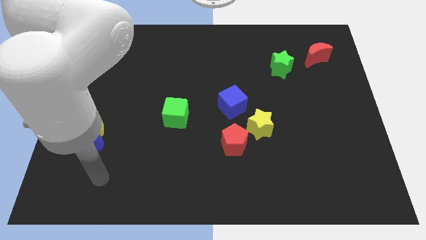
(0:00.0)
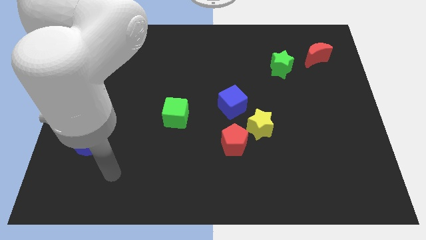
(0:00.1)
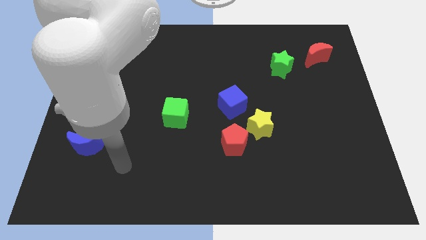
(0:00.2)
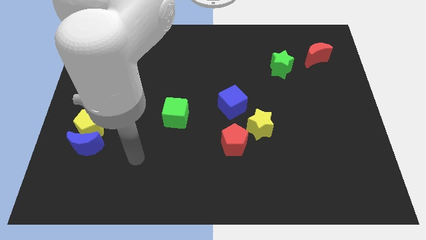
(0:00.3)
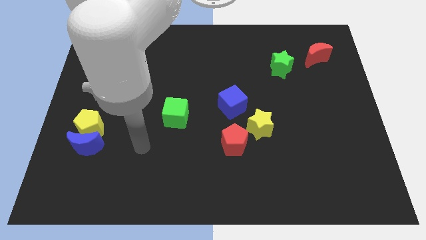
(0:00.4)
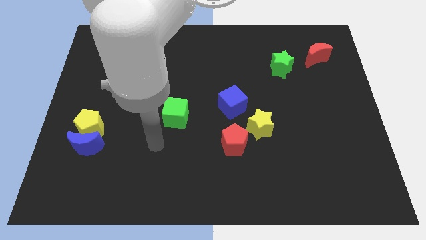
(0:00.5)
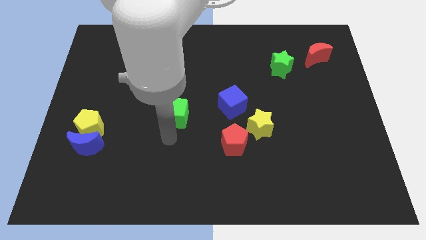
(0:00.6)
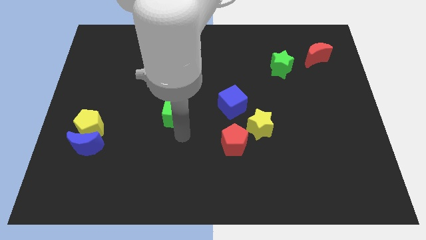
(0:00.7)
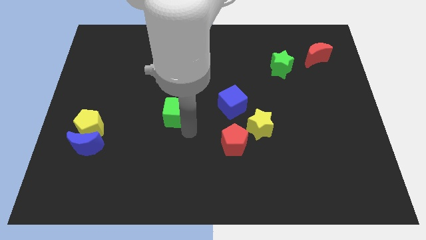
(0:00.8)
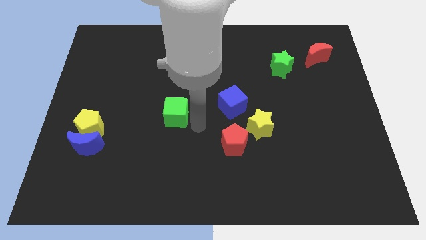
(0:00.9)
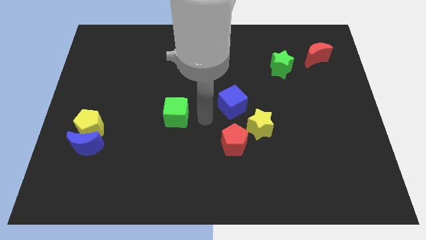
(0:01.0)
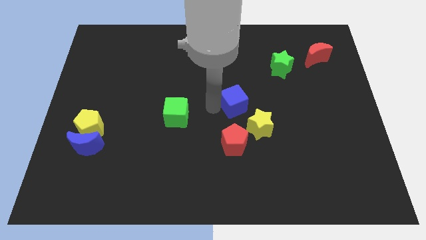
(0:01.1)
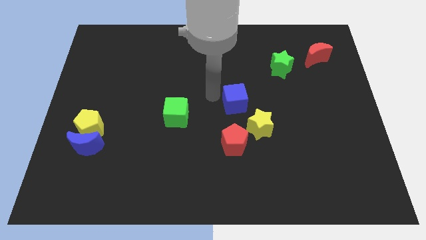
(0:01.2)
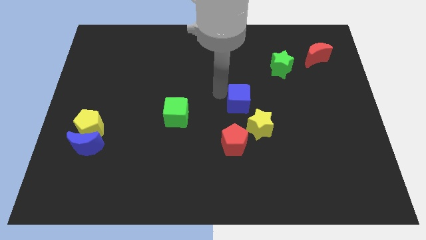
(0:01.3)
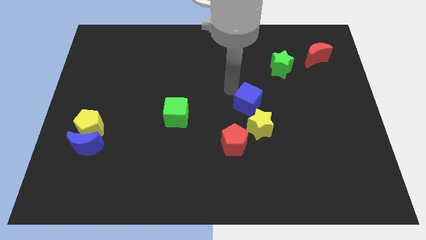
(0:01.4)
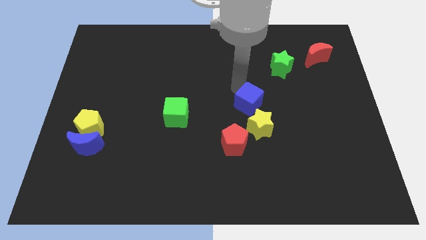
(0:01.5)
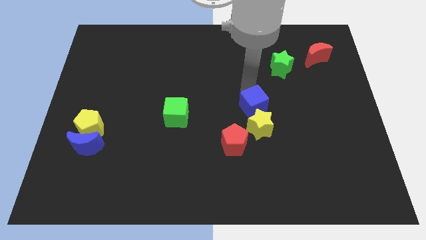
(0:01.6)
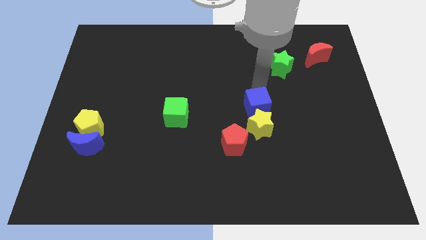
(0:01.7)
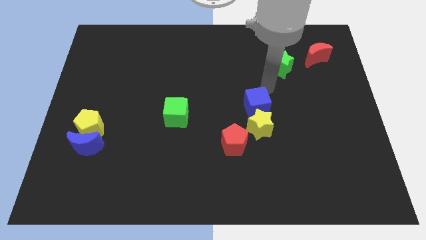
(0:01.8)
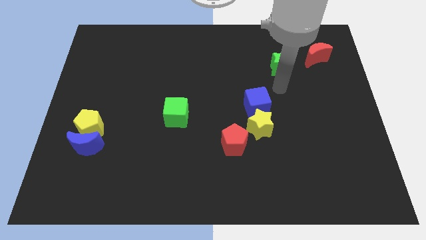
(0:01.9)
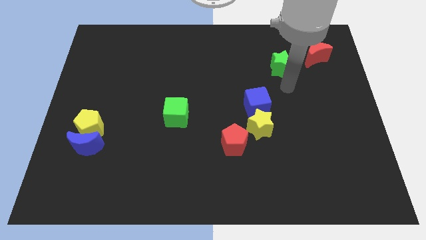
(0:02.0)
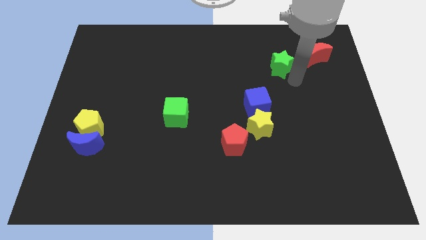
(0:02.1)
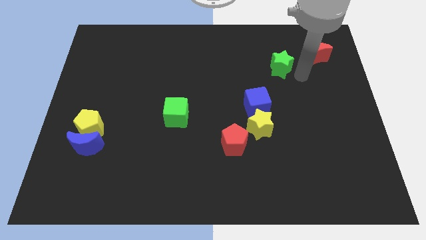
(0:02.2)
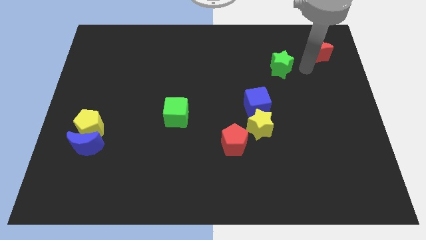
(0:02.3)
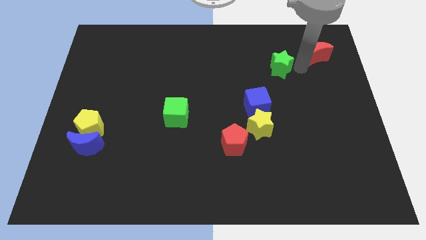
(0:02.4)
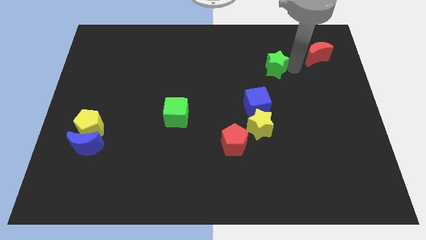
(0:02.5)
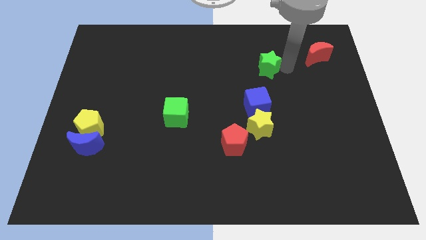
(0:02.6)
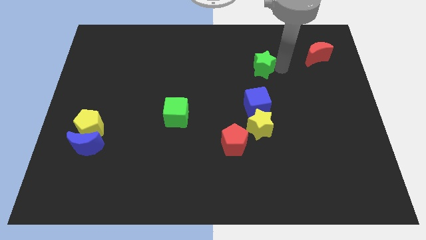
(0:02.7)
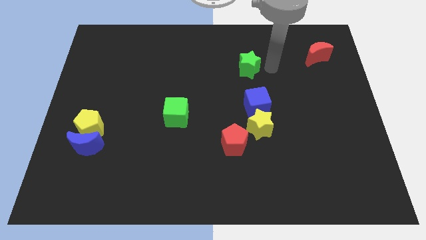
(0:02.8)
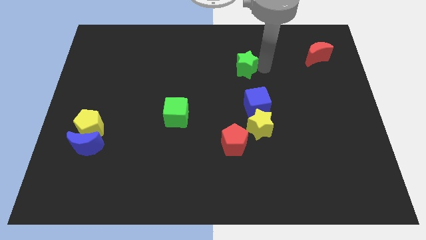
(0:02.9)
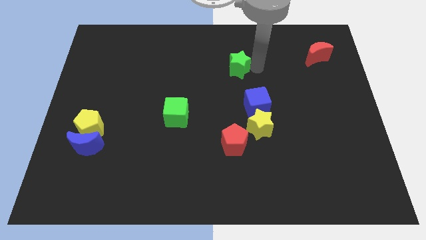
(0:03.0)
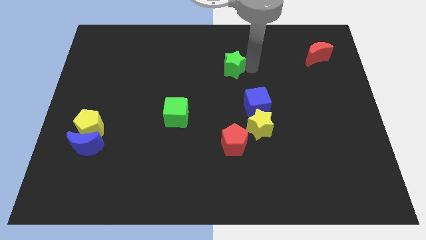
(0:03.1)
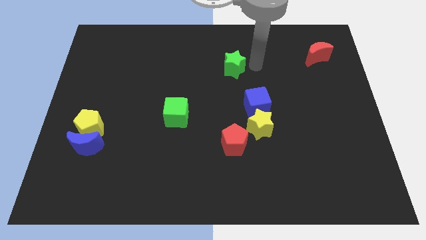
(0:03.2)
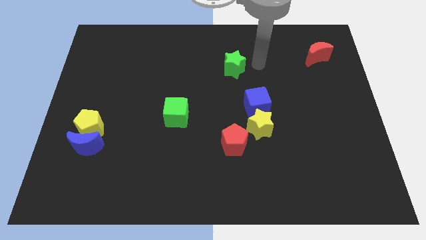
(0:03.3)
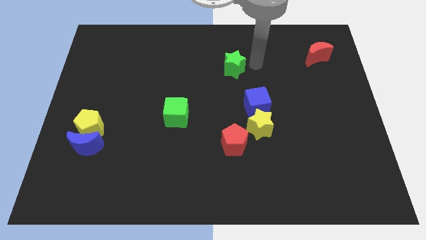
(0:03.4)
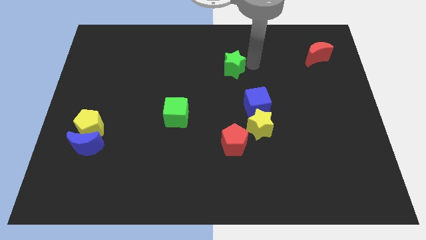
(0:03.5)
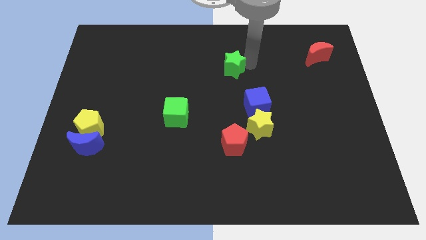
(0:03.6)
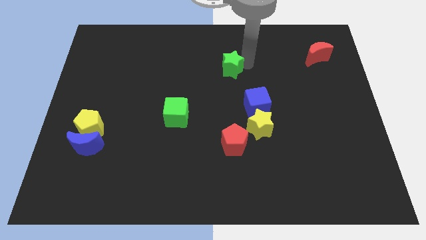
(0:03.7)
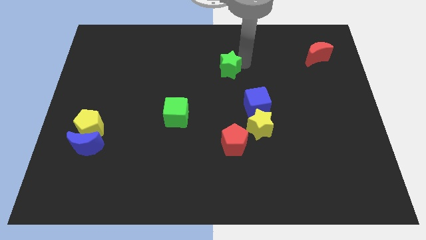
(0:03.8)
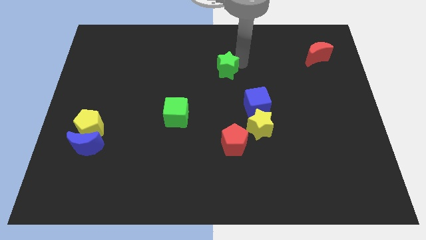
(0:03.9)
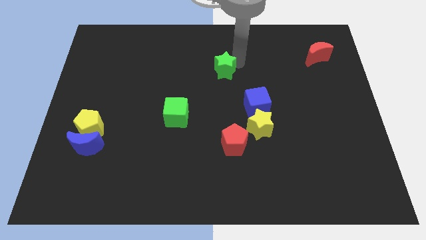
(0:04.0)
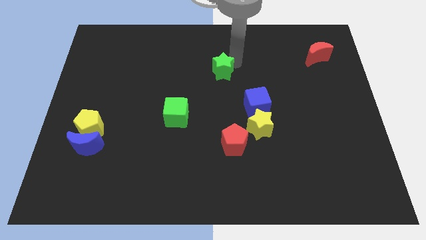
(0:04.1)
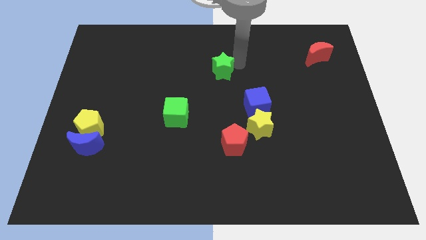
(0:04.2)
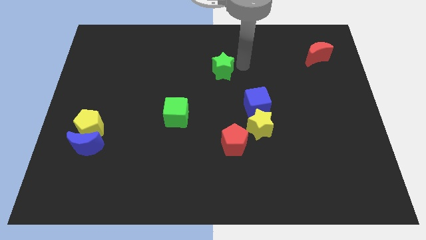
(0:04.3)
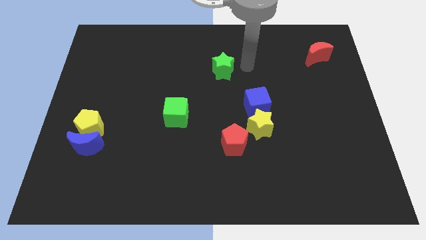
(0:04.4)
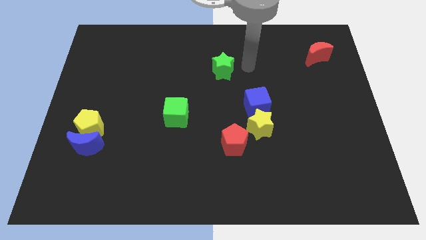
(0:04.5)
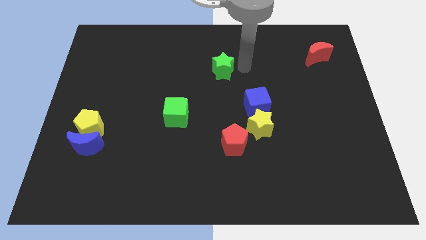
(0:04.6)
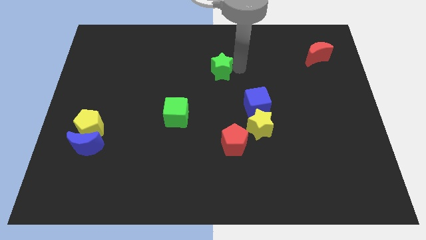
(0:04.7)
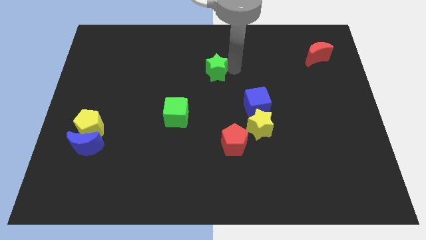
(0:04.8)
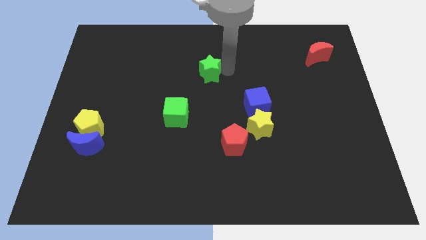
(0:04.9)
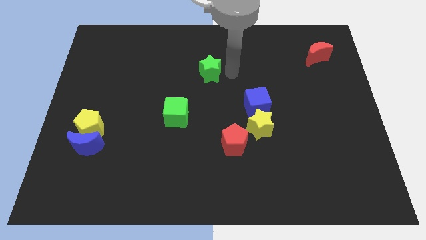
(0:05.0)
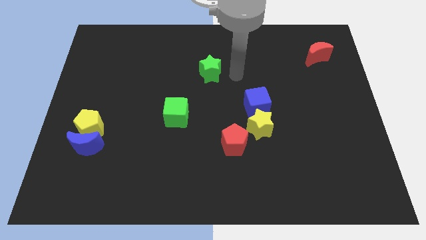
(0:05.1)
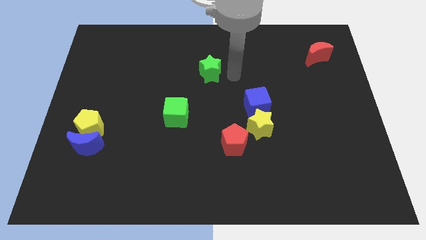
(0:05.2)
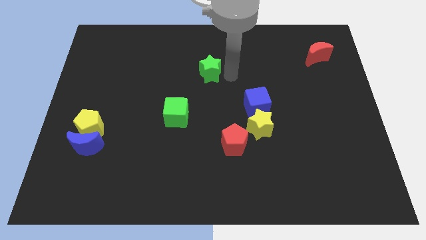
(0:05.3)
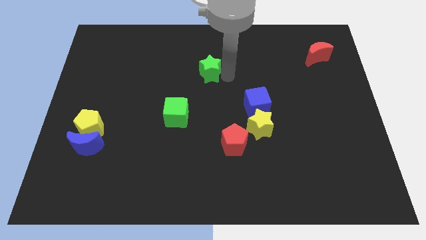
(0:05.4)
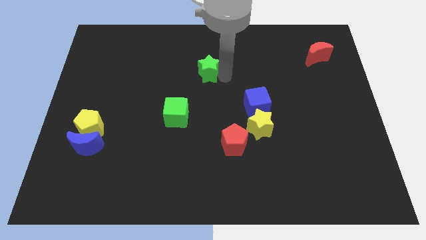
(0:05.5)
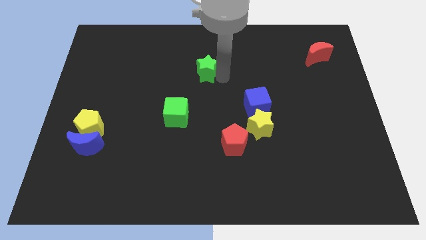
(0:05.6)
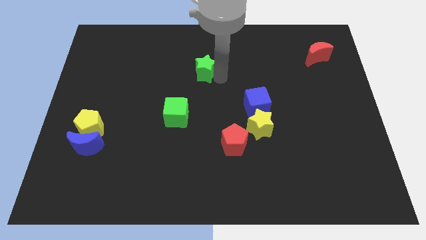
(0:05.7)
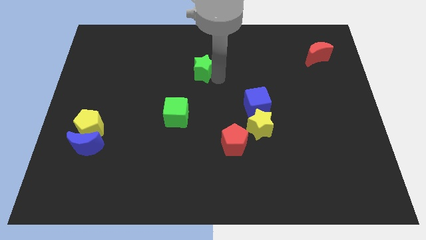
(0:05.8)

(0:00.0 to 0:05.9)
slide the green star left

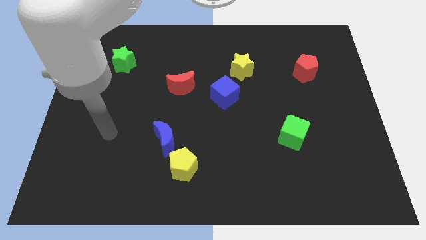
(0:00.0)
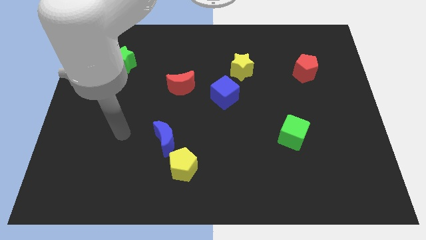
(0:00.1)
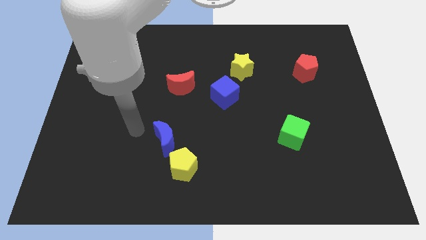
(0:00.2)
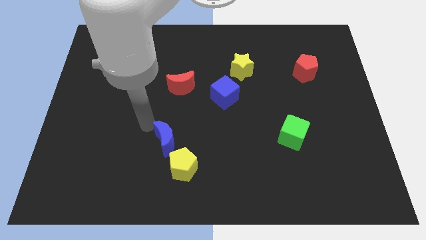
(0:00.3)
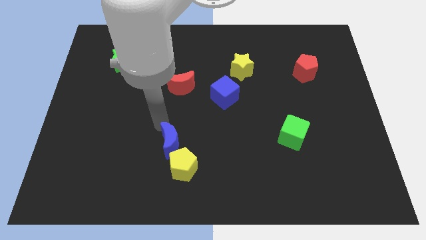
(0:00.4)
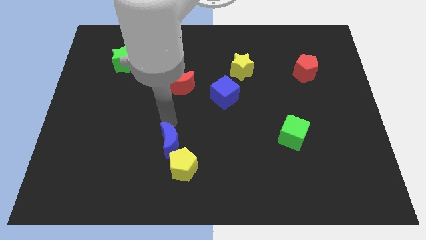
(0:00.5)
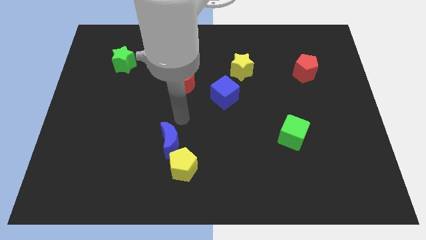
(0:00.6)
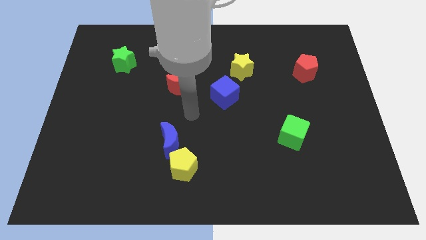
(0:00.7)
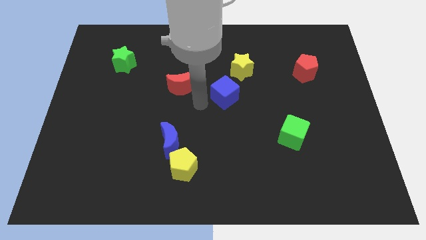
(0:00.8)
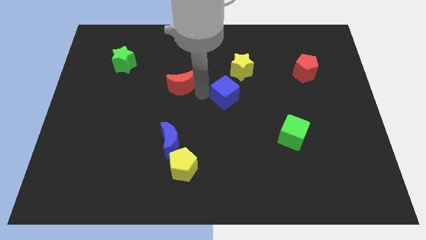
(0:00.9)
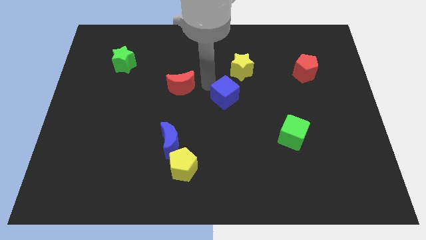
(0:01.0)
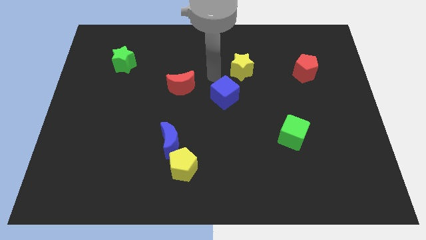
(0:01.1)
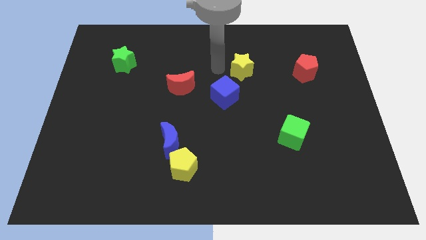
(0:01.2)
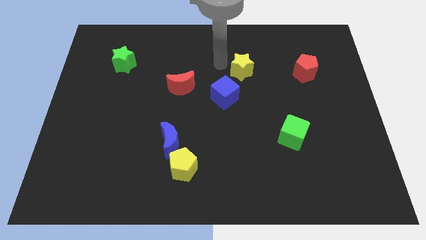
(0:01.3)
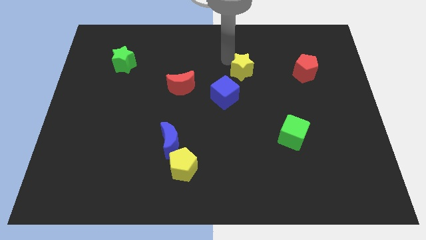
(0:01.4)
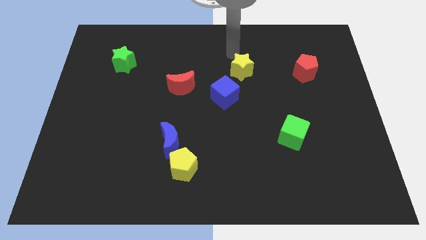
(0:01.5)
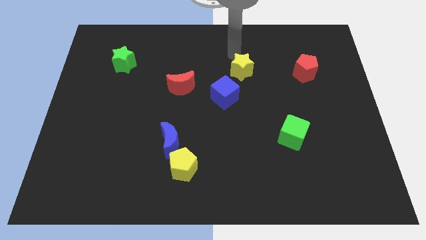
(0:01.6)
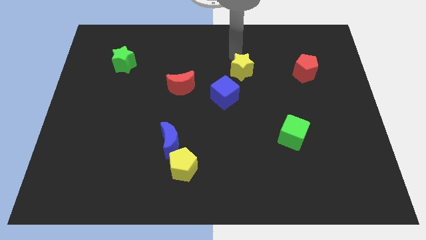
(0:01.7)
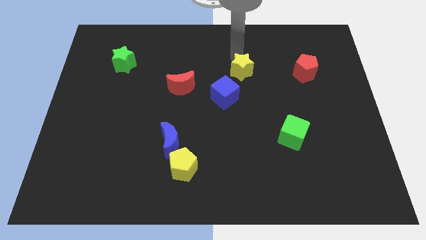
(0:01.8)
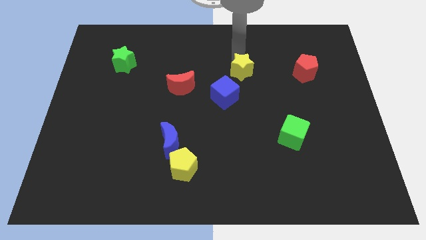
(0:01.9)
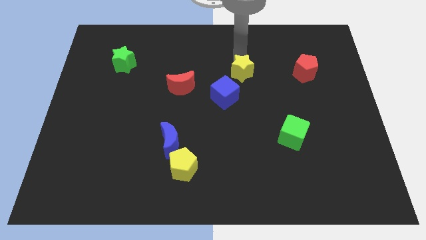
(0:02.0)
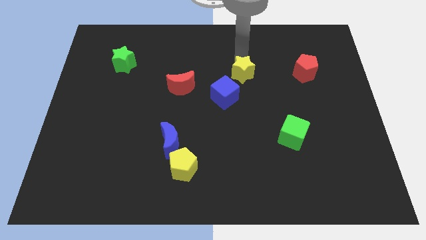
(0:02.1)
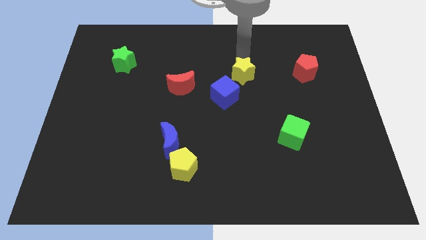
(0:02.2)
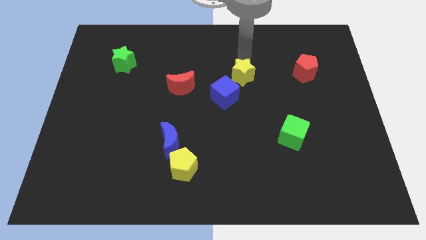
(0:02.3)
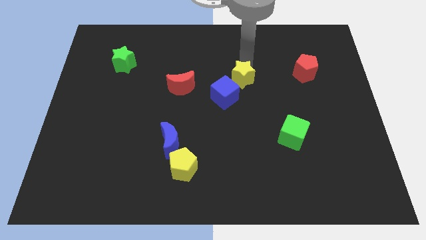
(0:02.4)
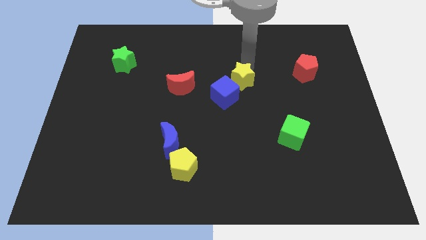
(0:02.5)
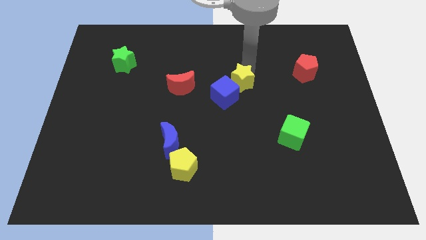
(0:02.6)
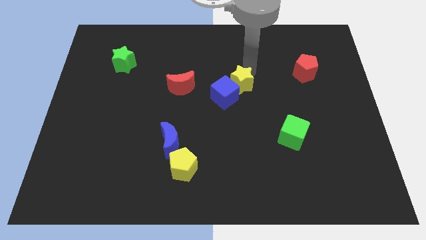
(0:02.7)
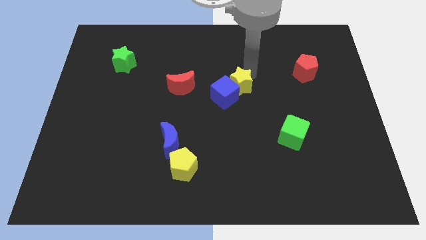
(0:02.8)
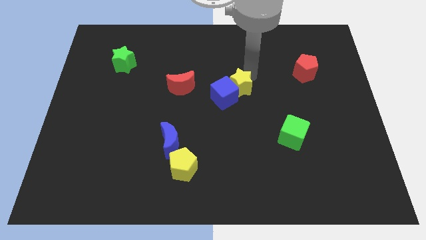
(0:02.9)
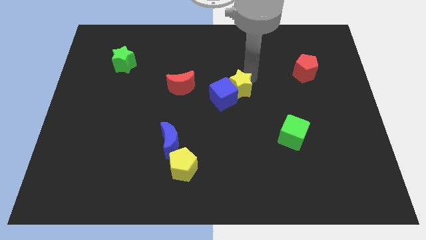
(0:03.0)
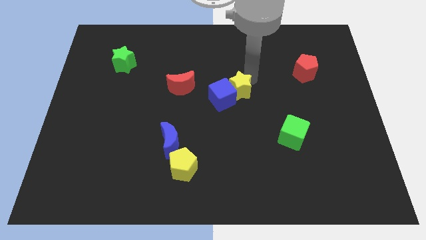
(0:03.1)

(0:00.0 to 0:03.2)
slide the yellow star down a bit
